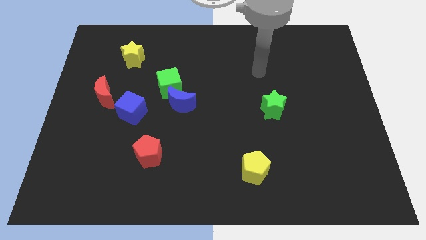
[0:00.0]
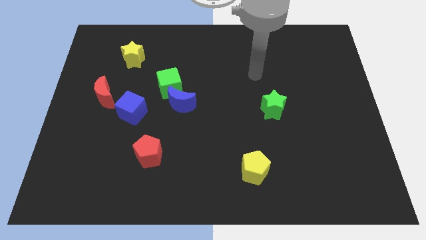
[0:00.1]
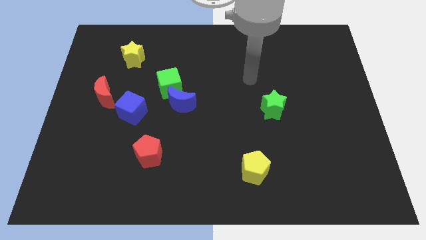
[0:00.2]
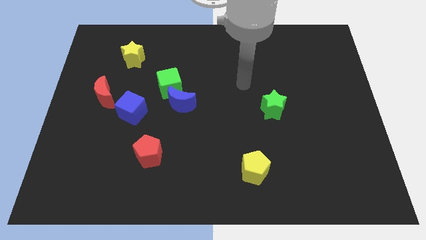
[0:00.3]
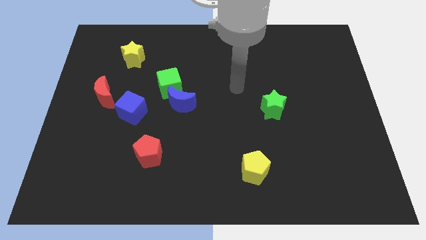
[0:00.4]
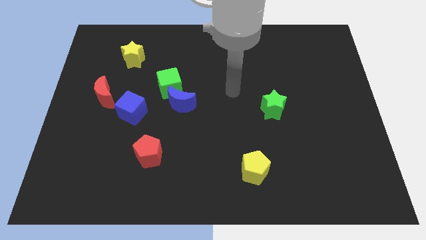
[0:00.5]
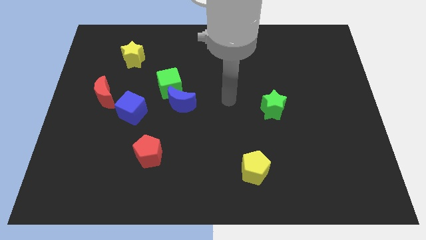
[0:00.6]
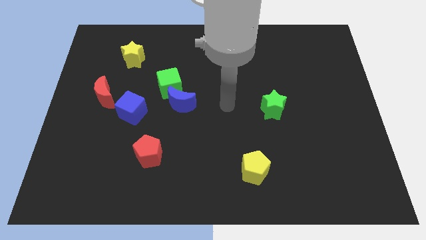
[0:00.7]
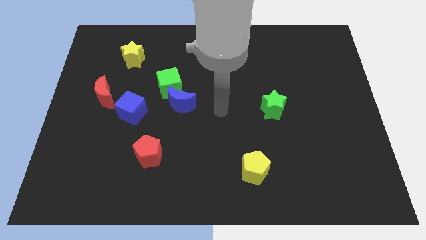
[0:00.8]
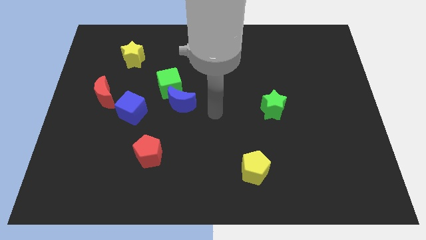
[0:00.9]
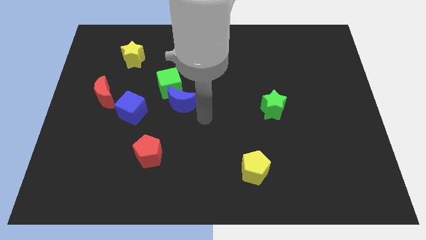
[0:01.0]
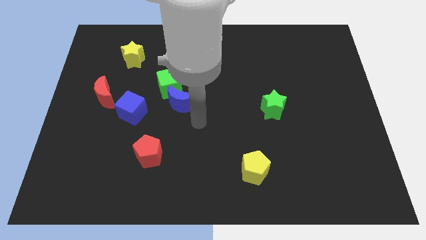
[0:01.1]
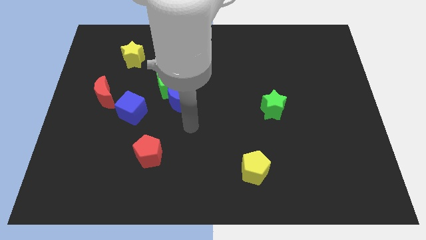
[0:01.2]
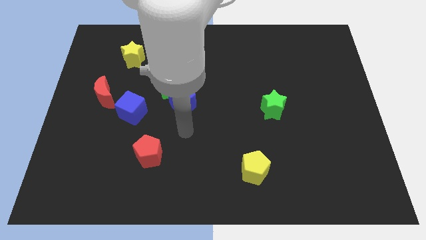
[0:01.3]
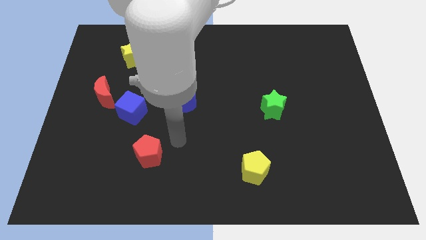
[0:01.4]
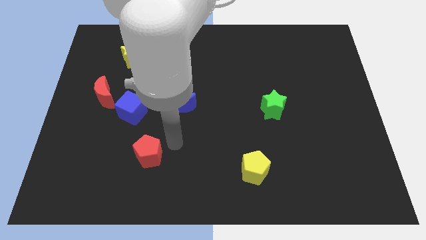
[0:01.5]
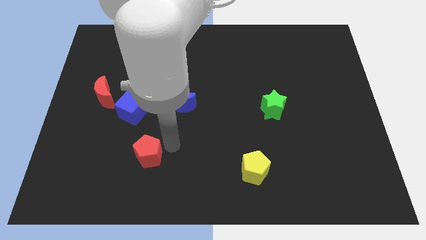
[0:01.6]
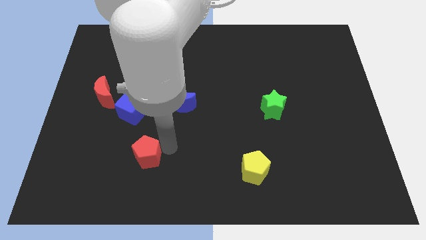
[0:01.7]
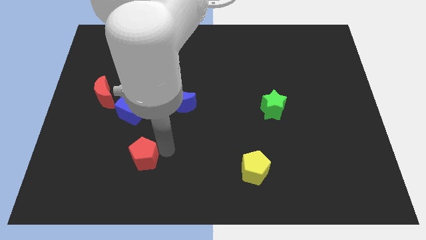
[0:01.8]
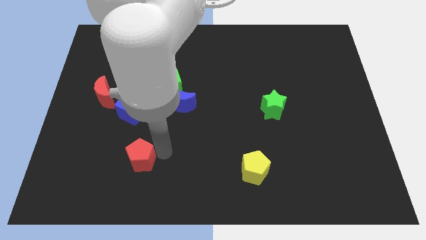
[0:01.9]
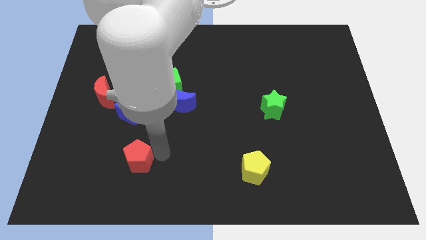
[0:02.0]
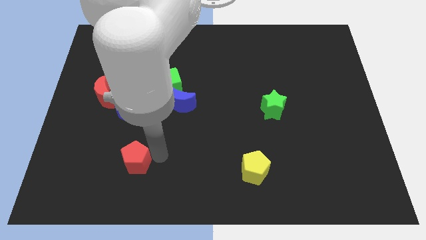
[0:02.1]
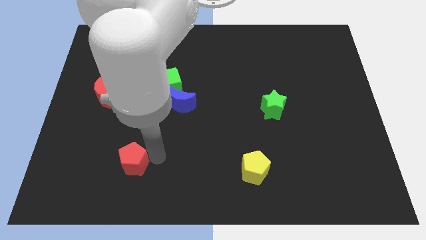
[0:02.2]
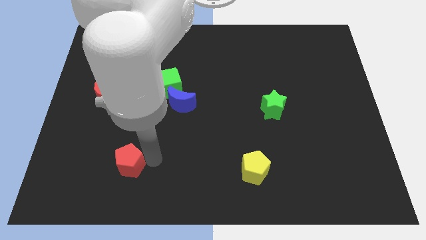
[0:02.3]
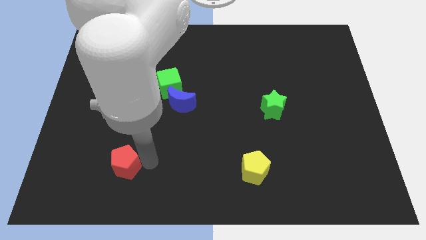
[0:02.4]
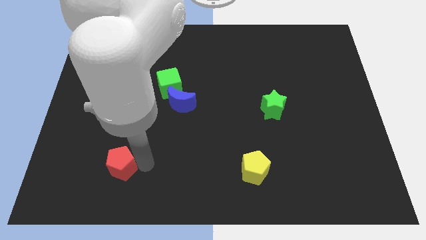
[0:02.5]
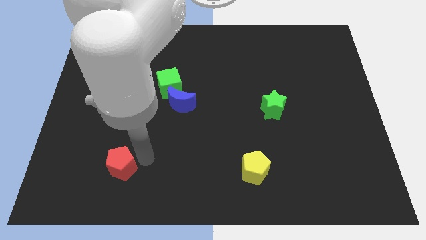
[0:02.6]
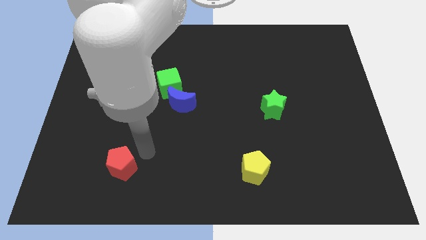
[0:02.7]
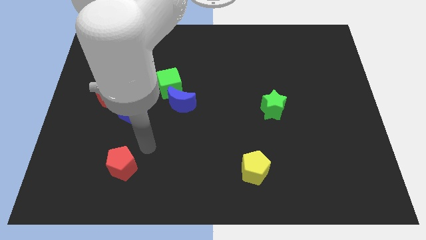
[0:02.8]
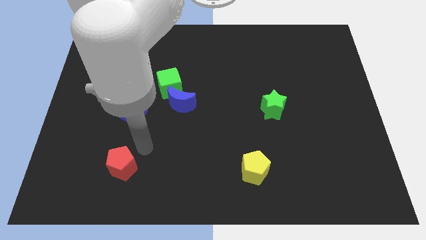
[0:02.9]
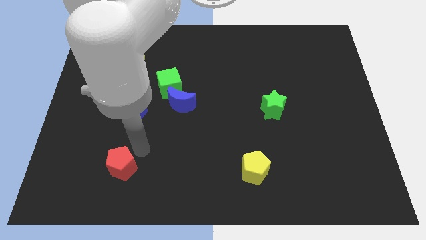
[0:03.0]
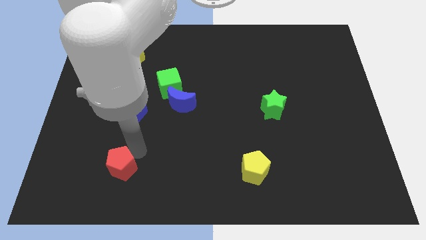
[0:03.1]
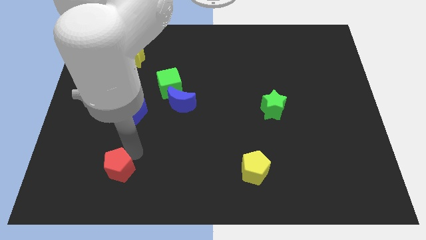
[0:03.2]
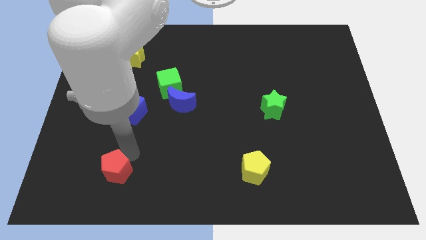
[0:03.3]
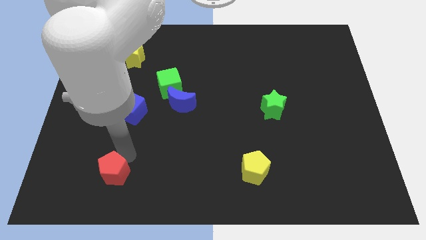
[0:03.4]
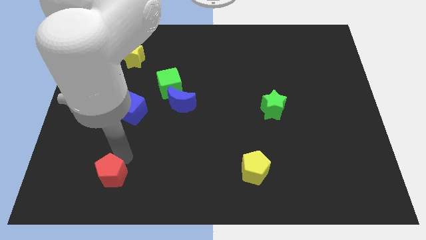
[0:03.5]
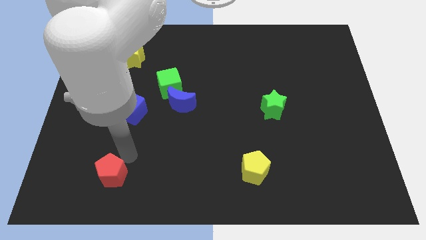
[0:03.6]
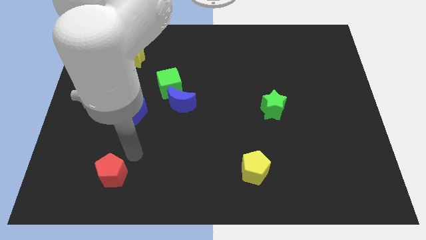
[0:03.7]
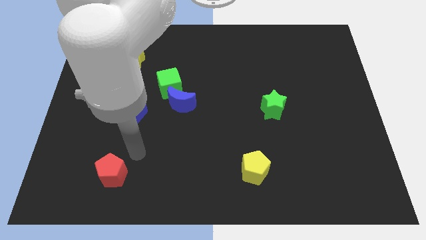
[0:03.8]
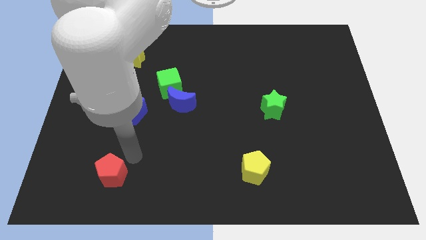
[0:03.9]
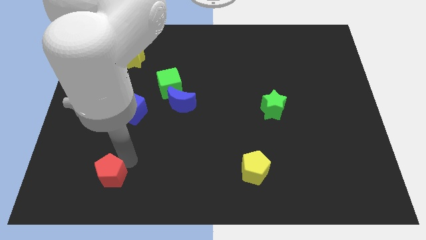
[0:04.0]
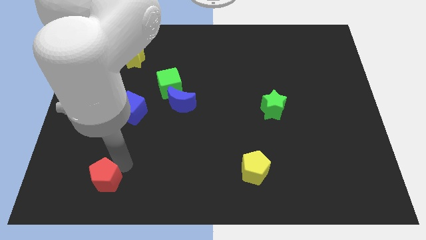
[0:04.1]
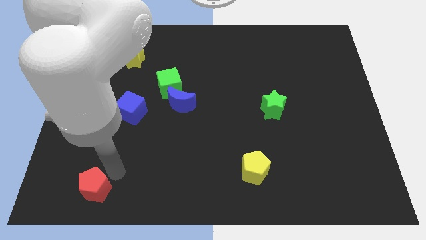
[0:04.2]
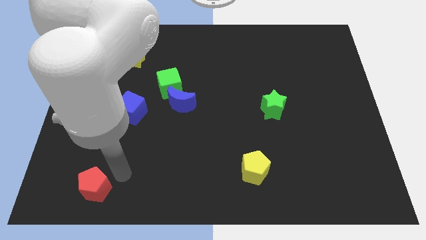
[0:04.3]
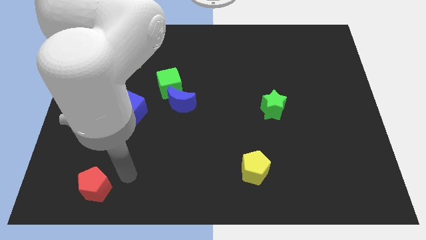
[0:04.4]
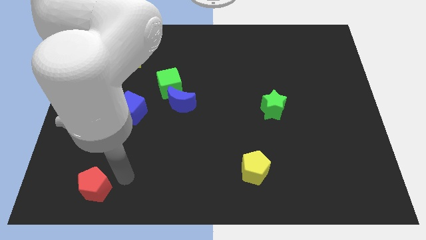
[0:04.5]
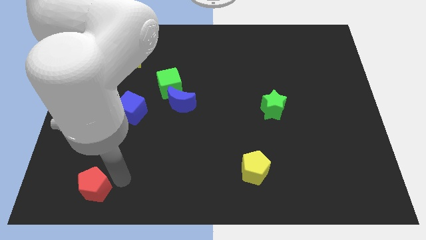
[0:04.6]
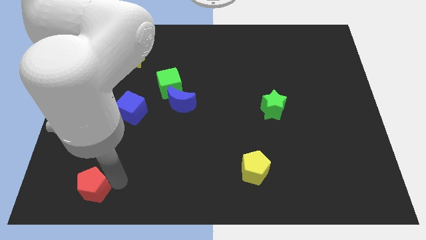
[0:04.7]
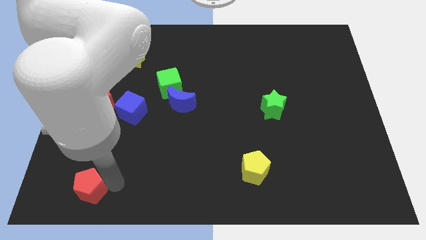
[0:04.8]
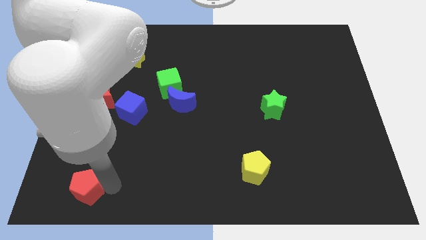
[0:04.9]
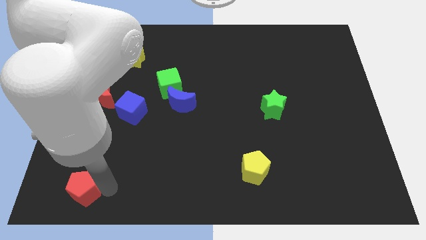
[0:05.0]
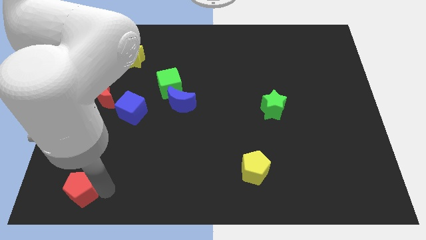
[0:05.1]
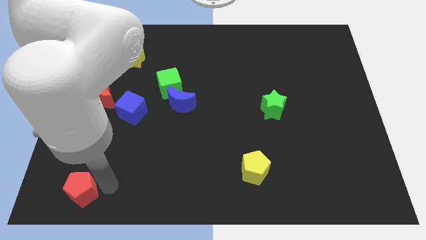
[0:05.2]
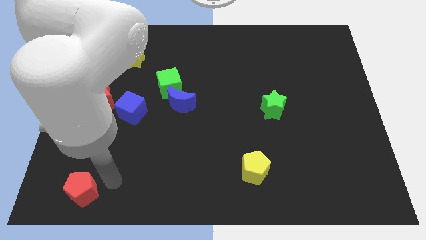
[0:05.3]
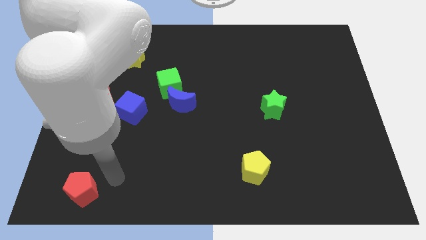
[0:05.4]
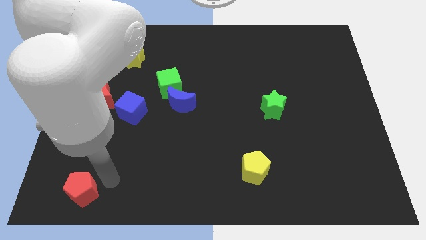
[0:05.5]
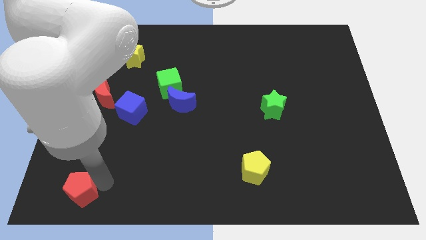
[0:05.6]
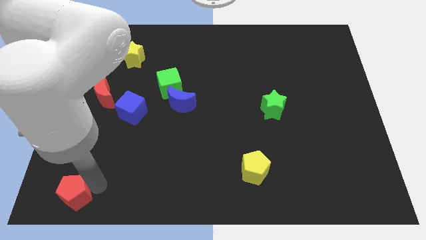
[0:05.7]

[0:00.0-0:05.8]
put the red pentagon to the lower left corner
